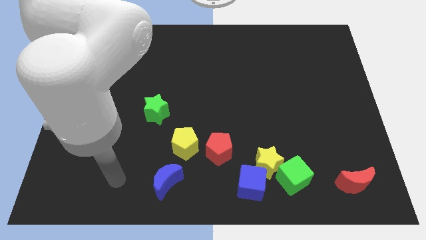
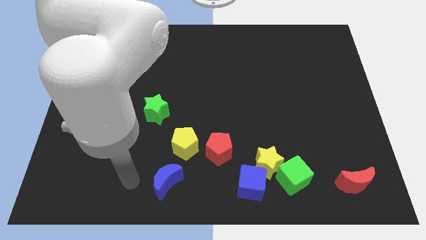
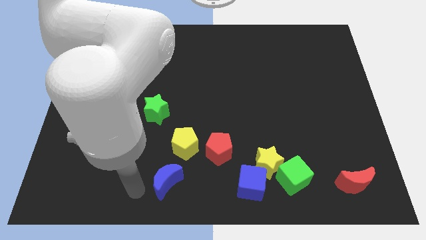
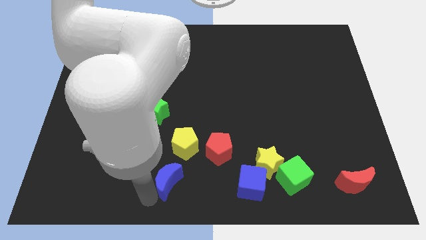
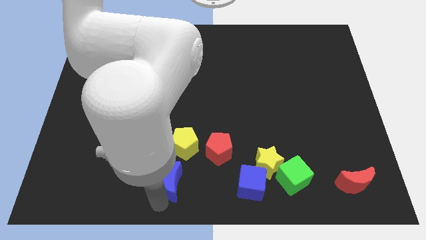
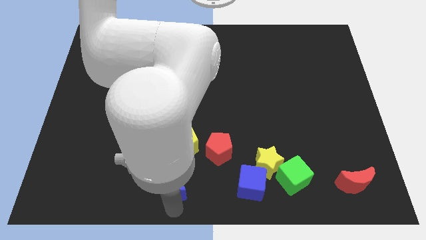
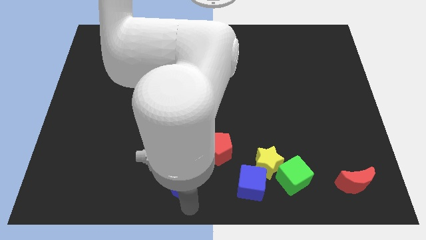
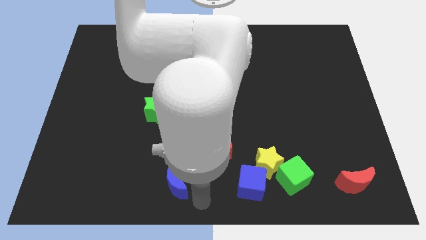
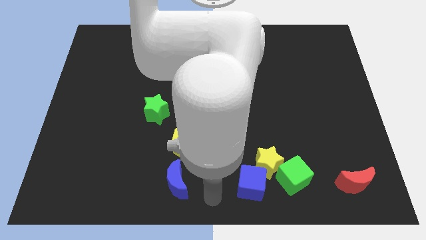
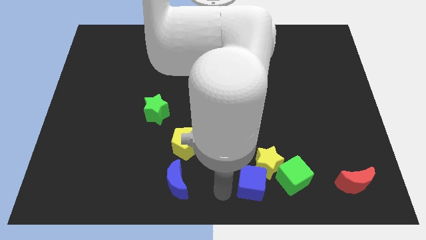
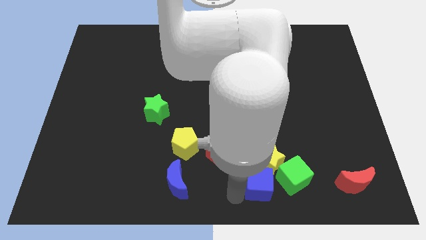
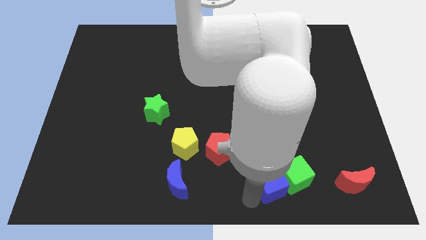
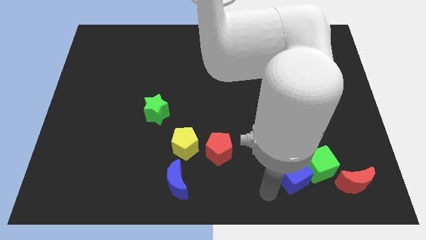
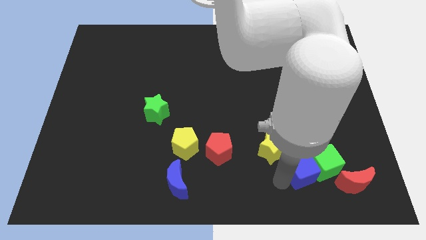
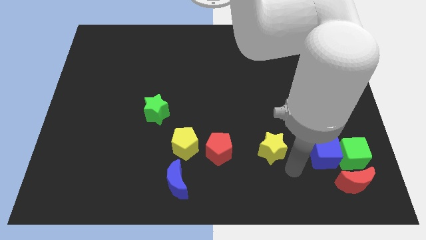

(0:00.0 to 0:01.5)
pull the yellow star apart from the green cube and blue cube

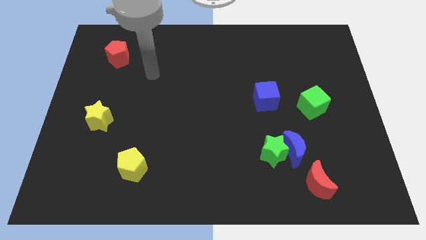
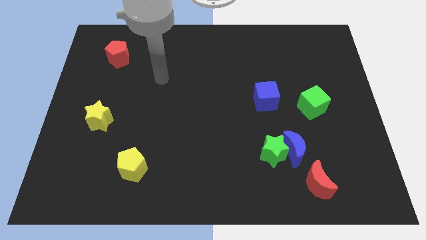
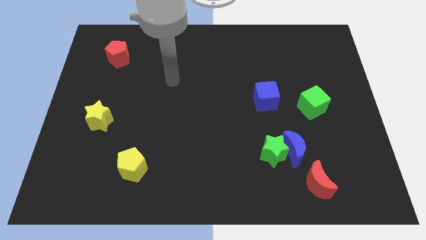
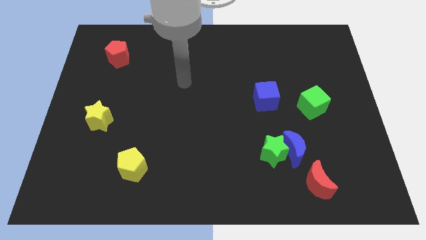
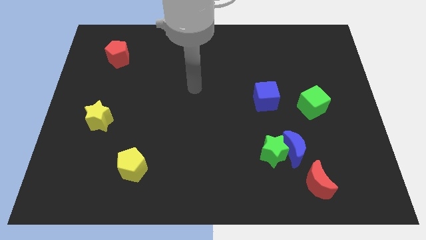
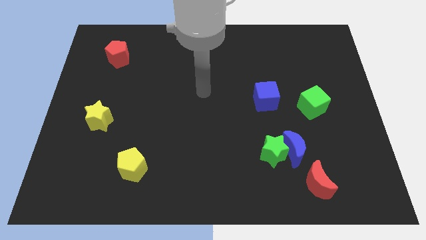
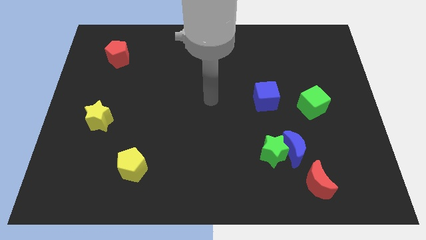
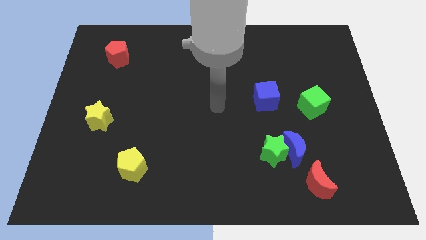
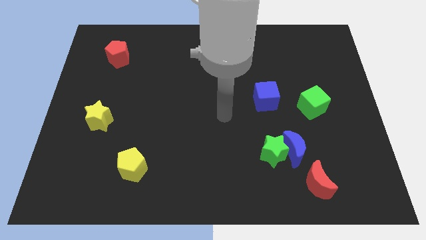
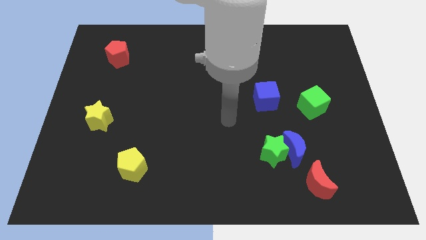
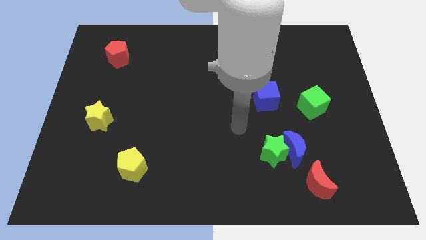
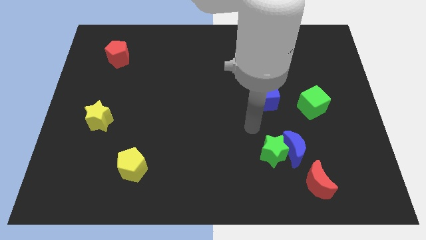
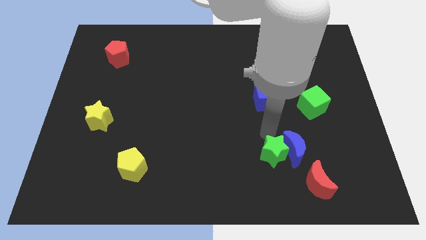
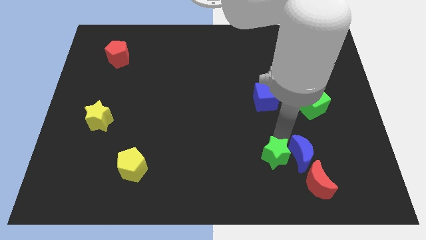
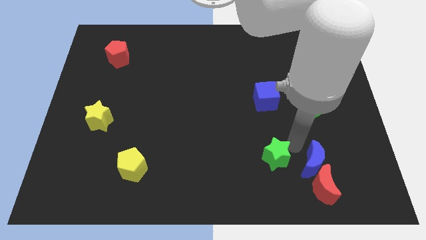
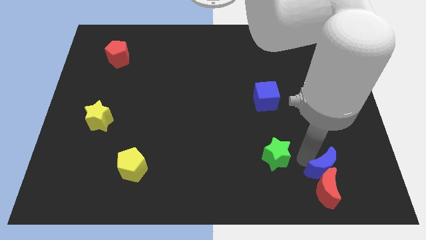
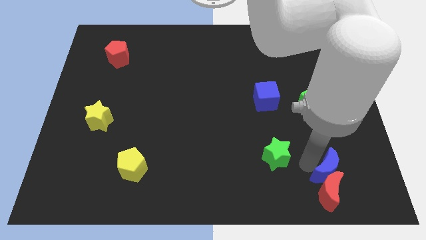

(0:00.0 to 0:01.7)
separate the green star from the blue moon

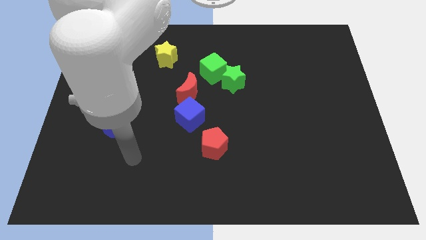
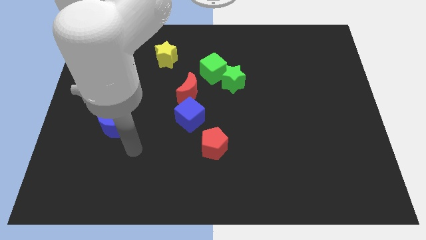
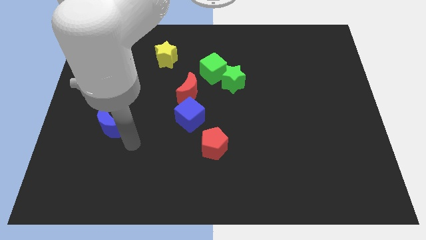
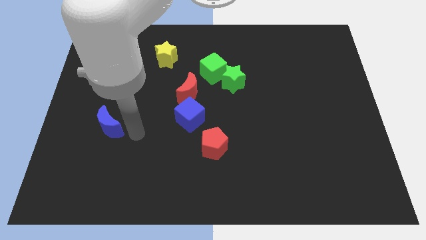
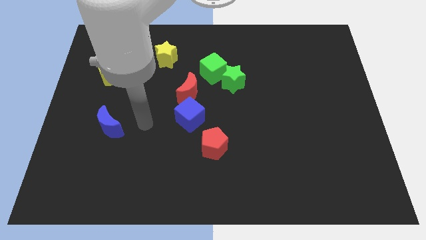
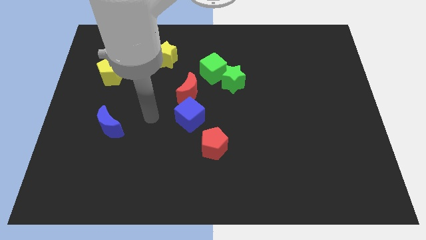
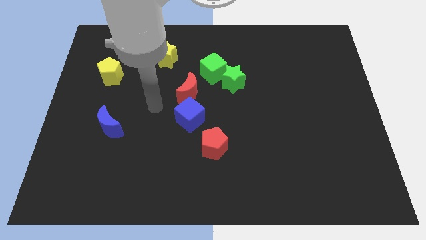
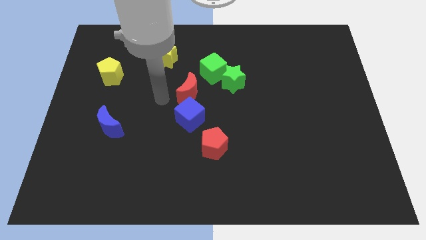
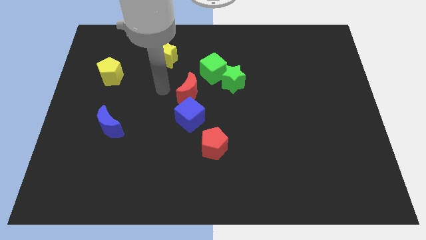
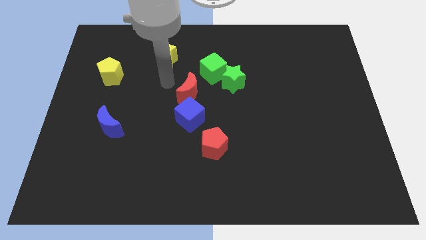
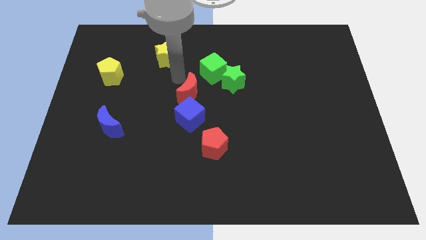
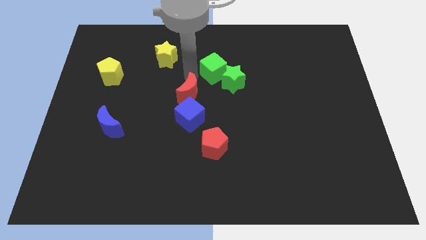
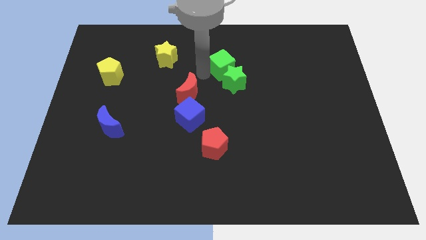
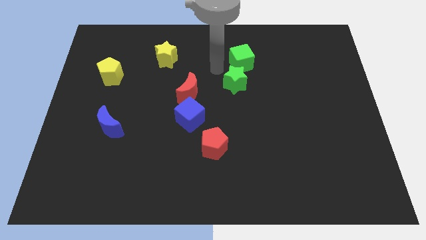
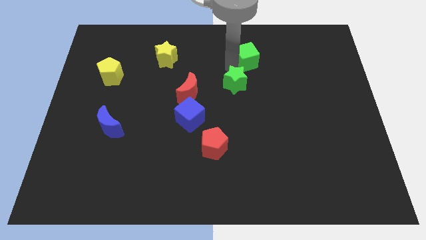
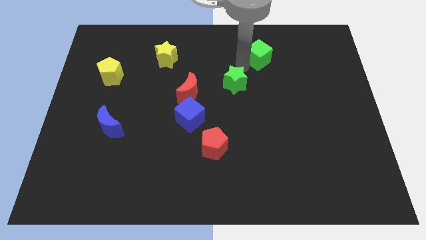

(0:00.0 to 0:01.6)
move the green star away from the green cube

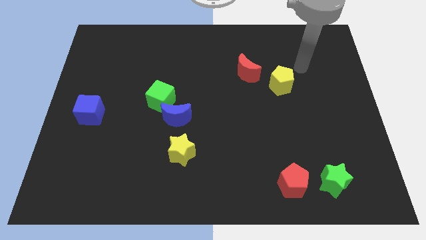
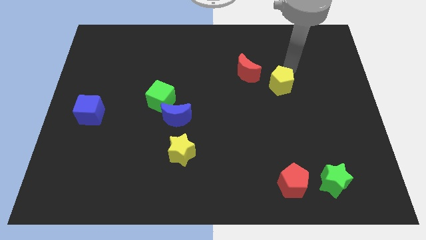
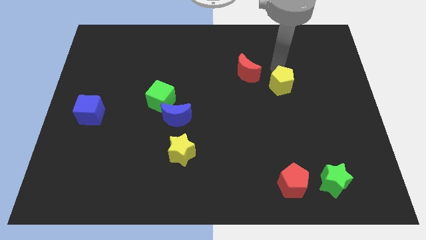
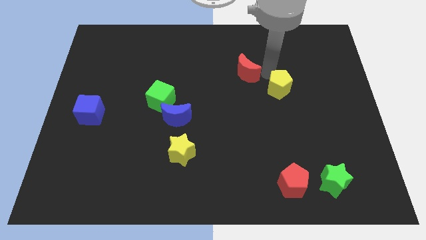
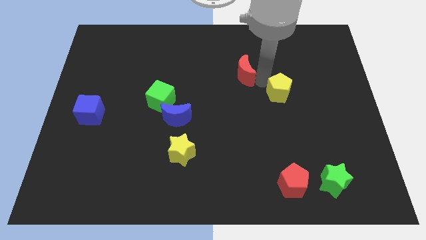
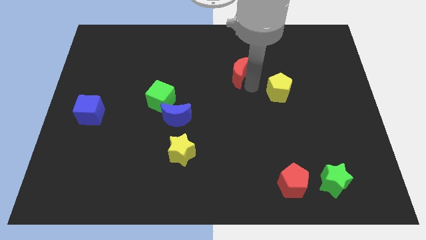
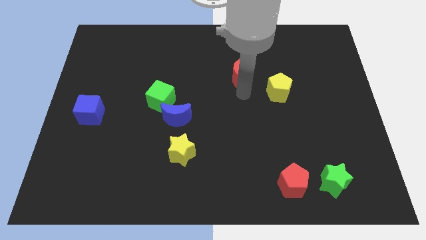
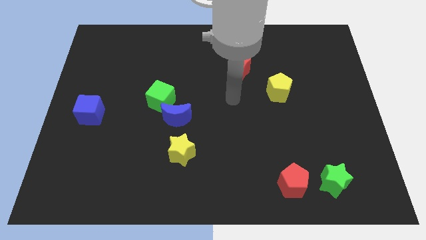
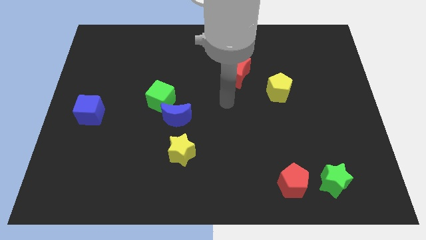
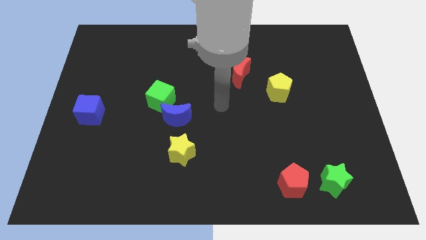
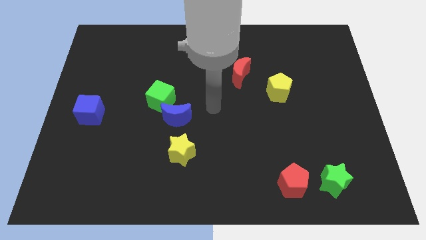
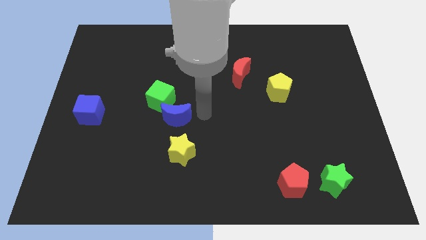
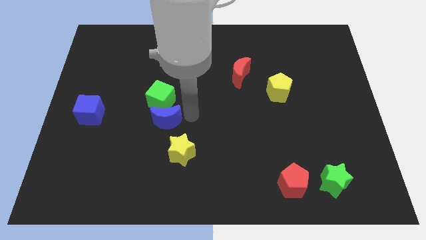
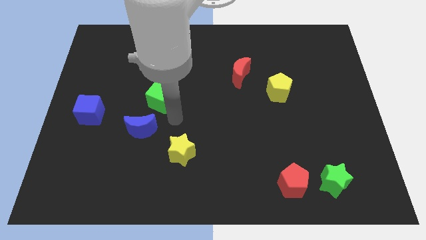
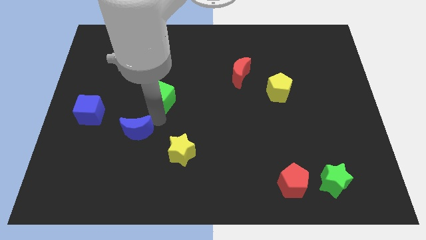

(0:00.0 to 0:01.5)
separate the green cube from the blue moon

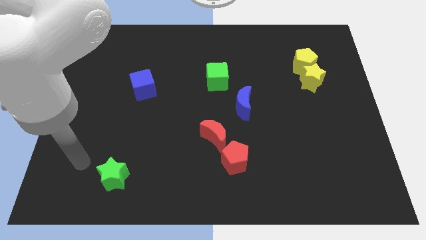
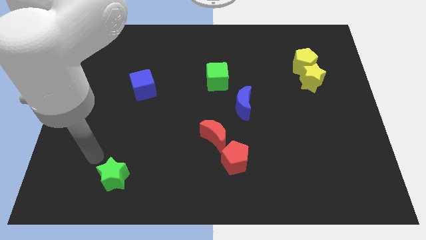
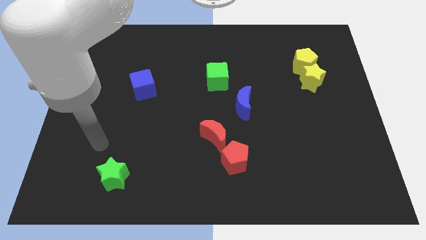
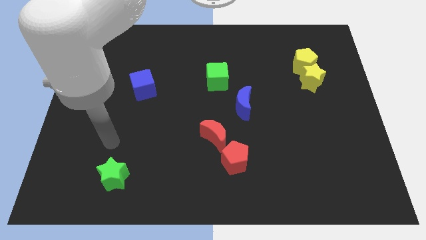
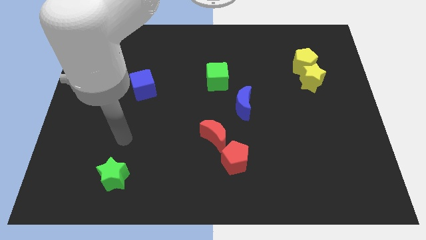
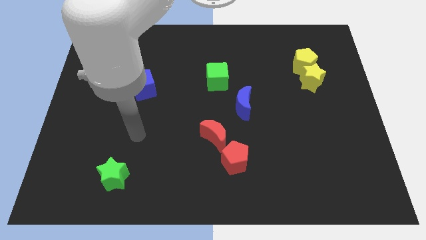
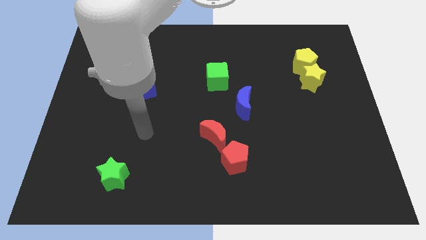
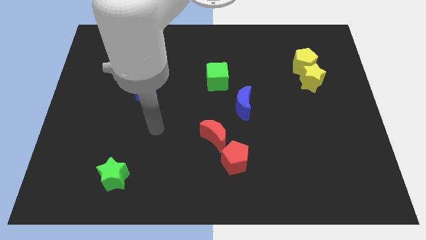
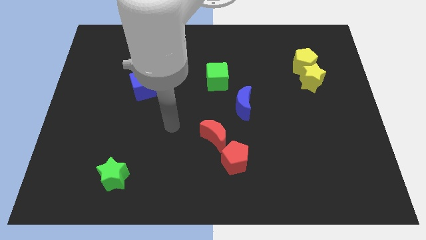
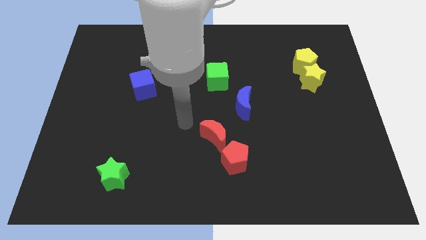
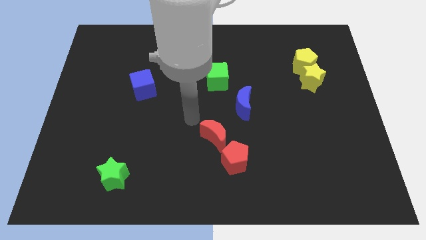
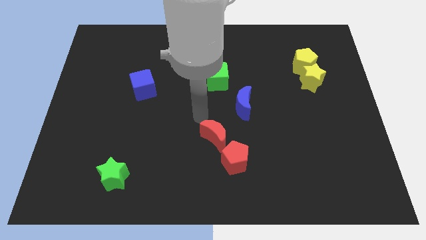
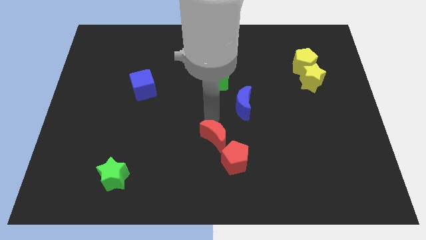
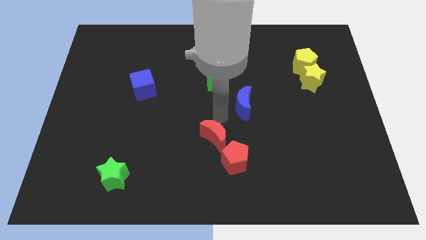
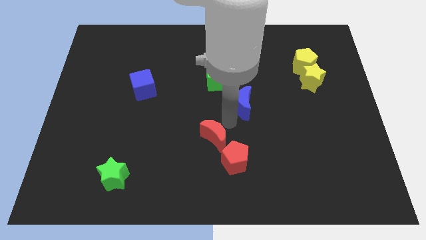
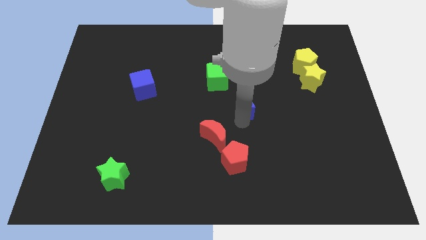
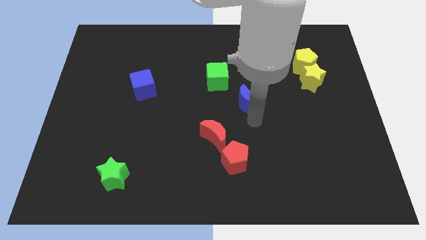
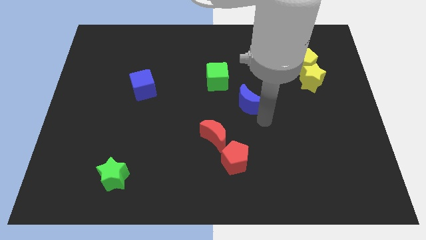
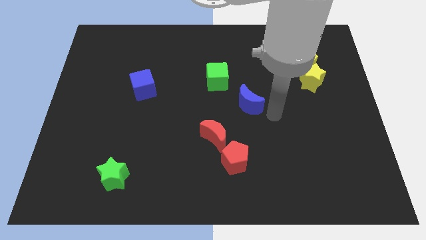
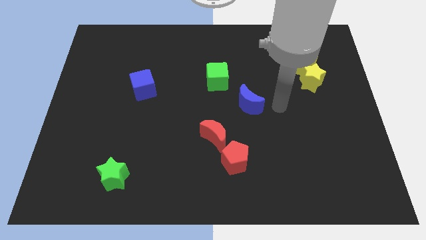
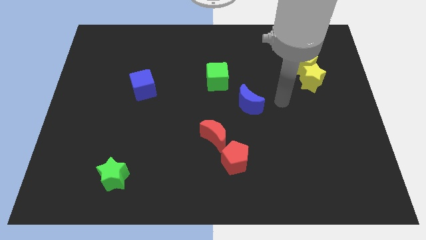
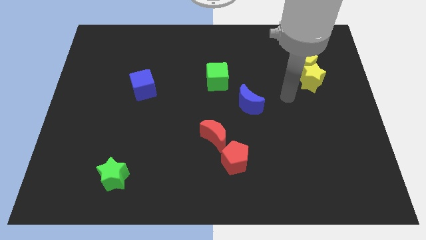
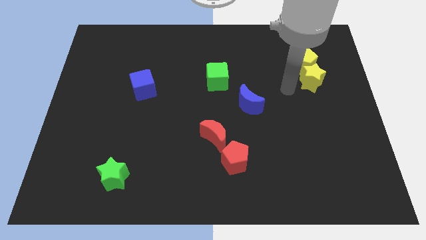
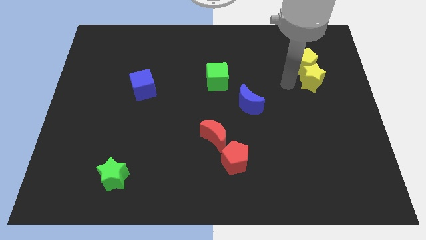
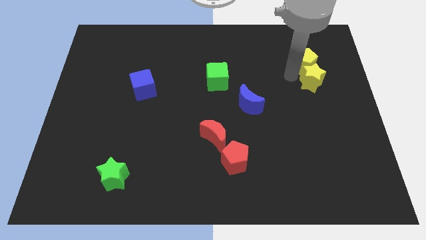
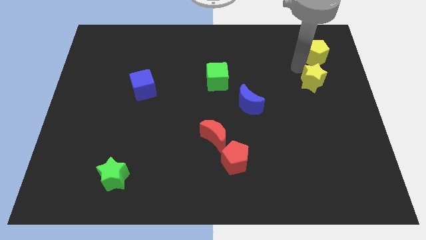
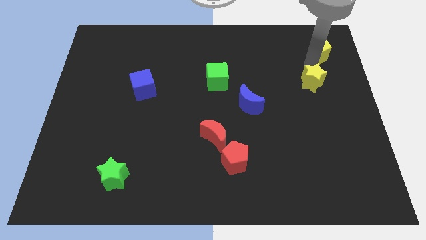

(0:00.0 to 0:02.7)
separate the yellow star from the yellow pentagon

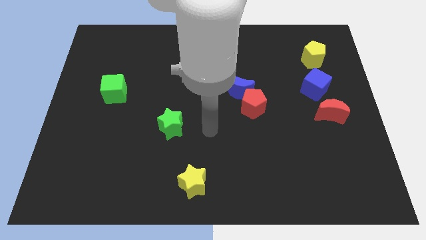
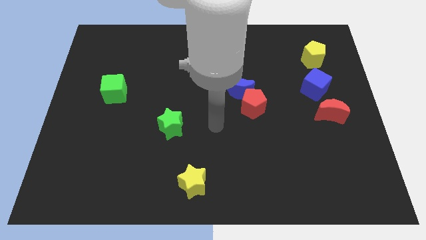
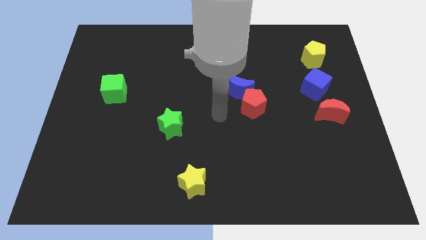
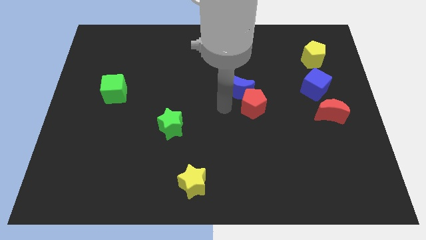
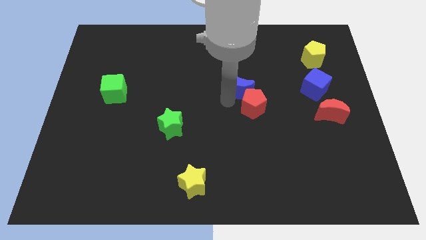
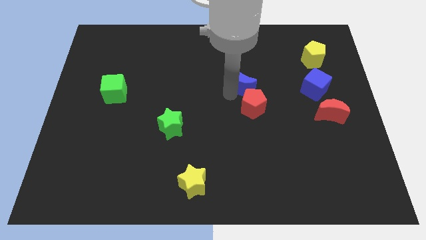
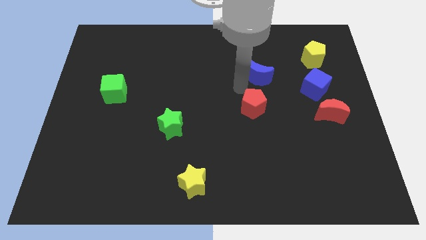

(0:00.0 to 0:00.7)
separate the red pentagon from the blue moon
